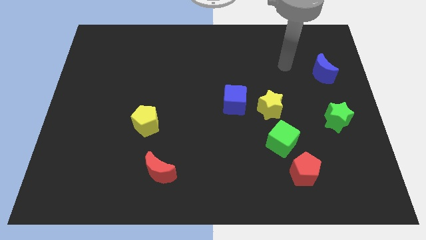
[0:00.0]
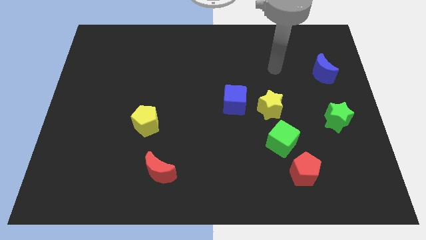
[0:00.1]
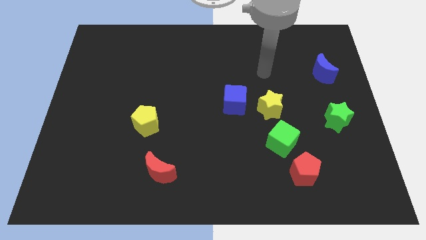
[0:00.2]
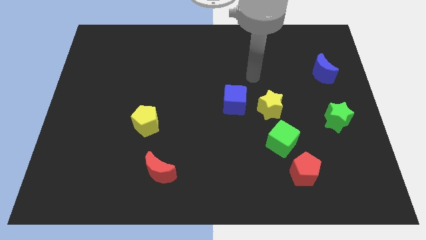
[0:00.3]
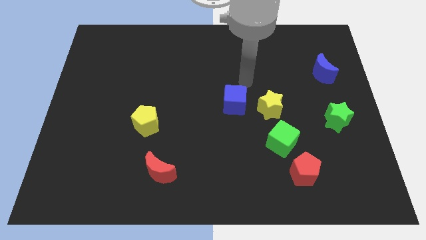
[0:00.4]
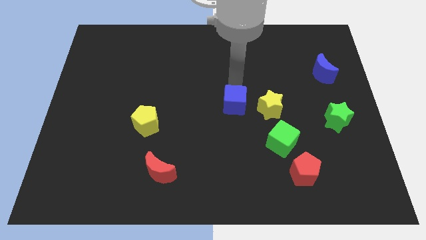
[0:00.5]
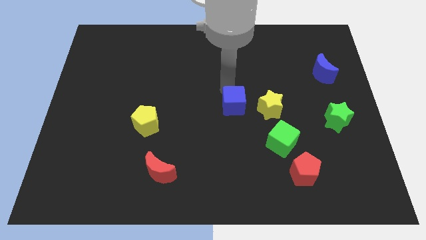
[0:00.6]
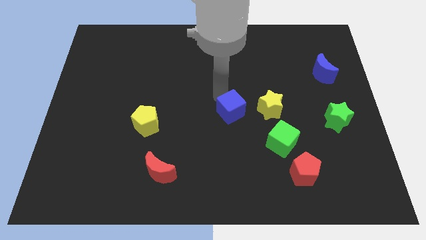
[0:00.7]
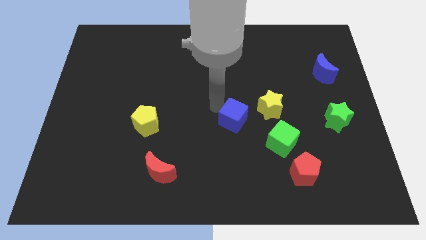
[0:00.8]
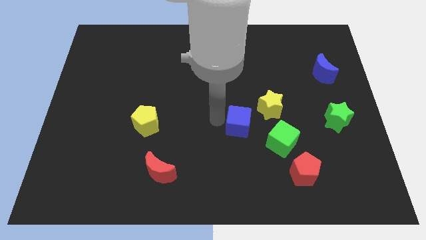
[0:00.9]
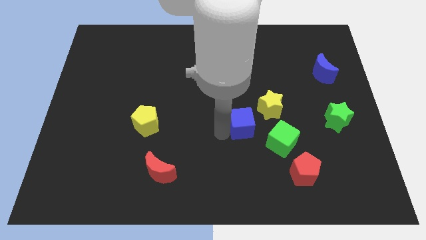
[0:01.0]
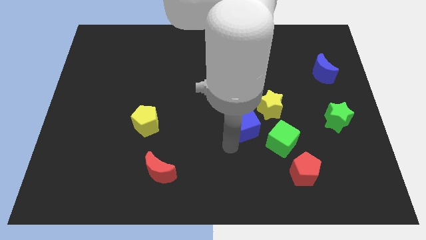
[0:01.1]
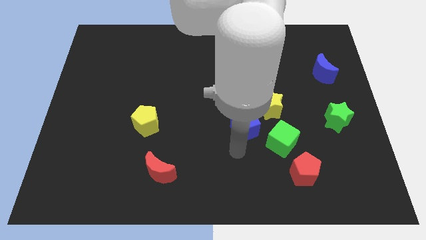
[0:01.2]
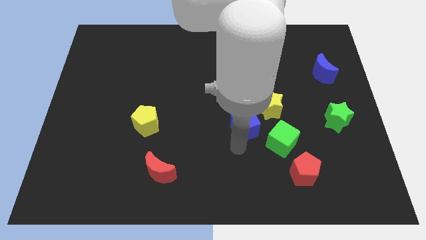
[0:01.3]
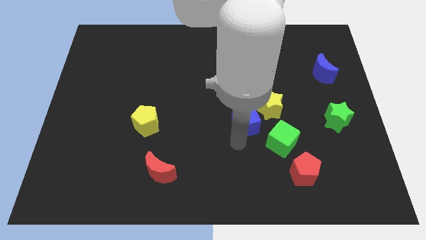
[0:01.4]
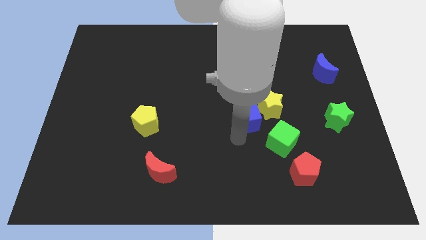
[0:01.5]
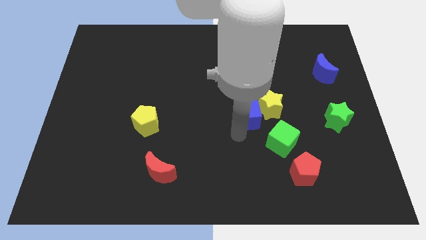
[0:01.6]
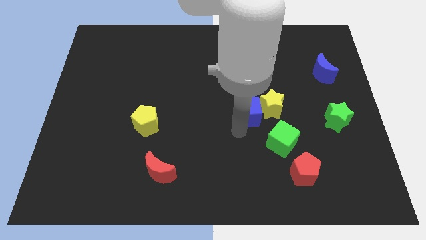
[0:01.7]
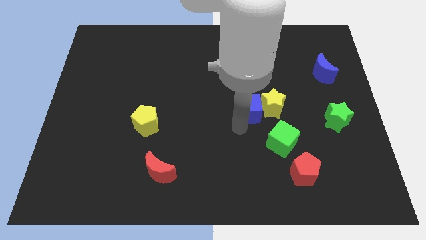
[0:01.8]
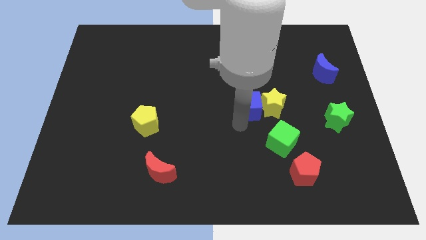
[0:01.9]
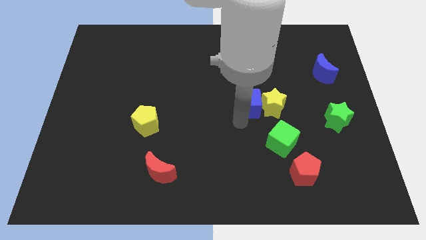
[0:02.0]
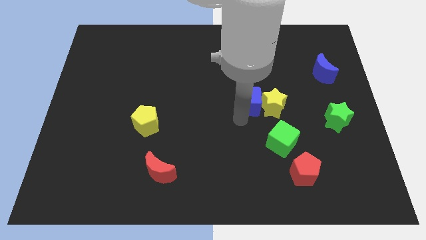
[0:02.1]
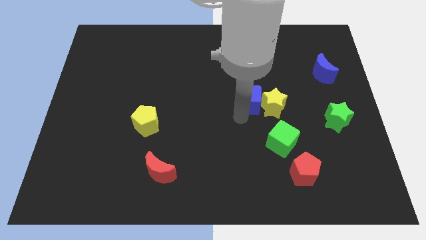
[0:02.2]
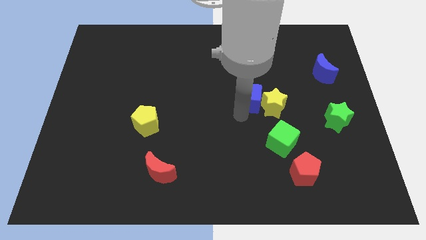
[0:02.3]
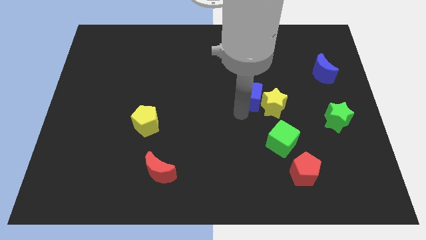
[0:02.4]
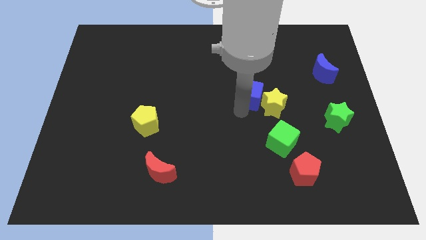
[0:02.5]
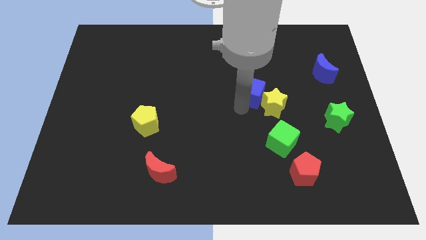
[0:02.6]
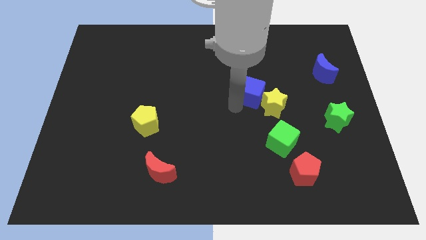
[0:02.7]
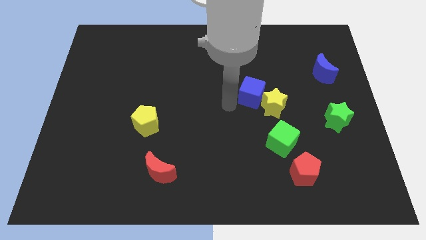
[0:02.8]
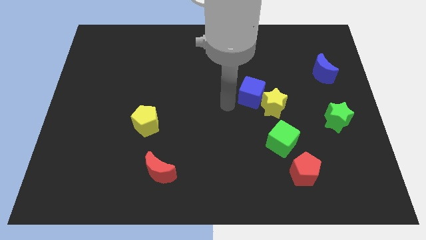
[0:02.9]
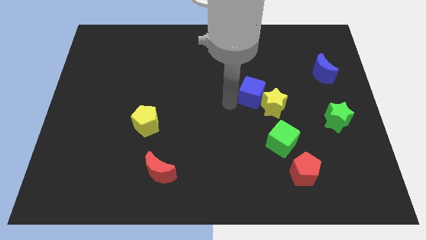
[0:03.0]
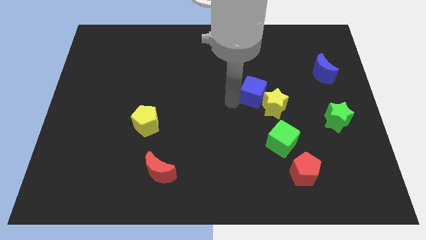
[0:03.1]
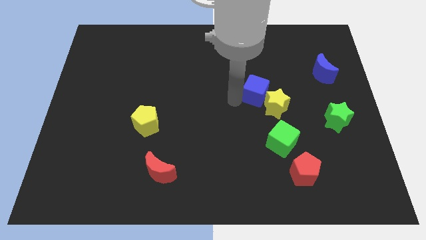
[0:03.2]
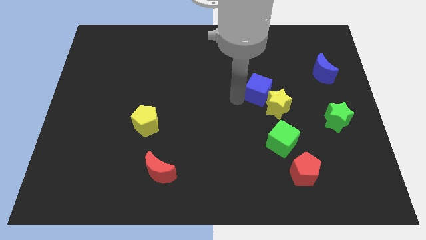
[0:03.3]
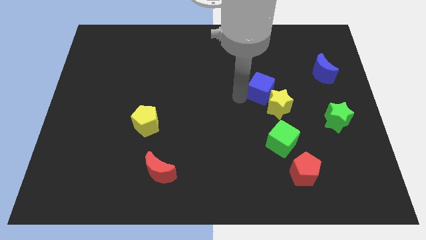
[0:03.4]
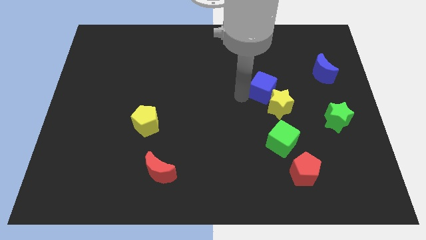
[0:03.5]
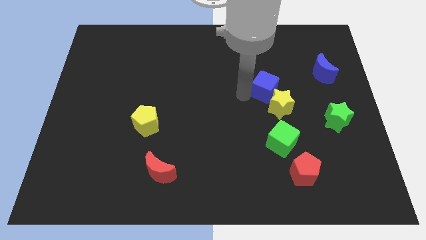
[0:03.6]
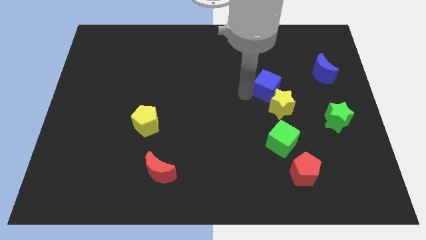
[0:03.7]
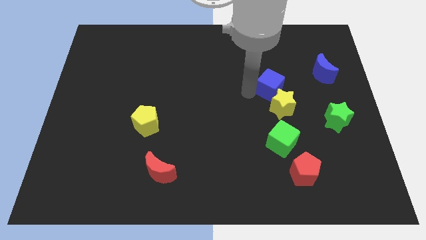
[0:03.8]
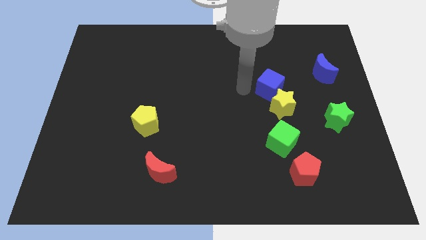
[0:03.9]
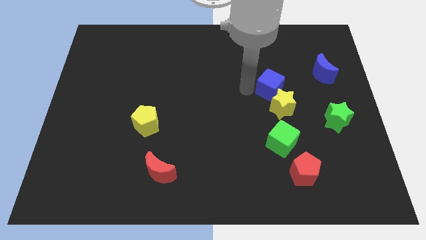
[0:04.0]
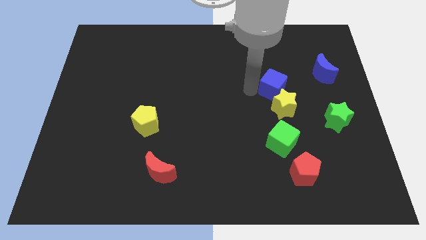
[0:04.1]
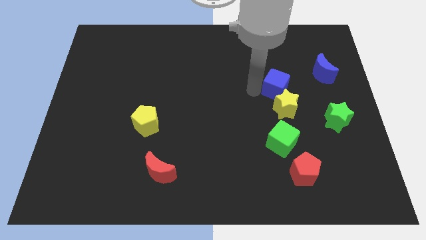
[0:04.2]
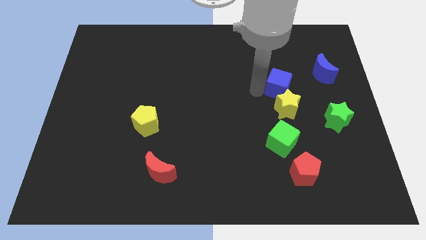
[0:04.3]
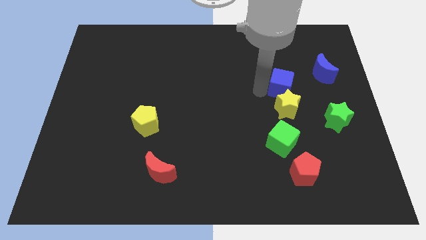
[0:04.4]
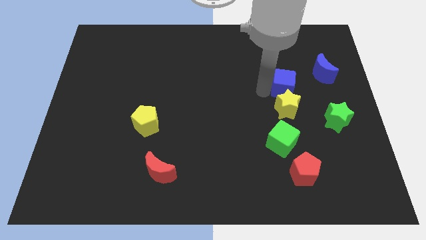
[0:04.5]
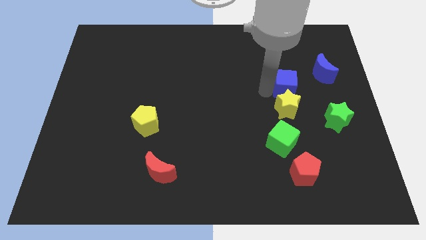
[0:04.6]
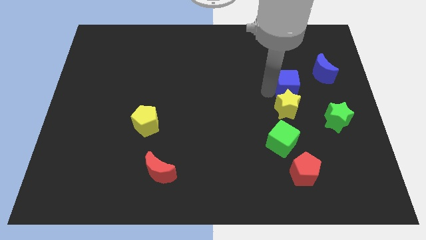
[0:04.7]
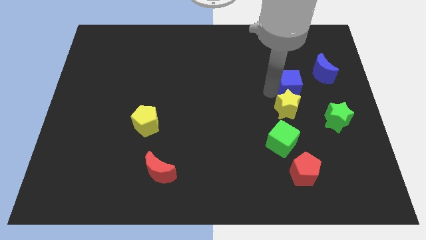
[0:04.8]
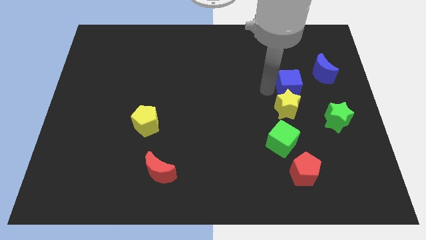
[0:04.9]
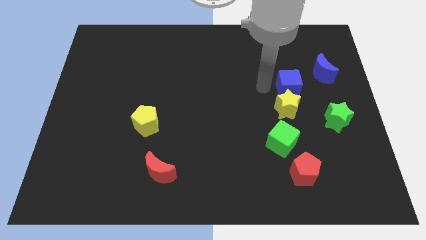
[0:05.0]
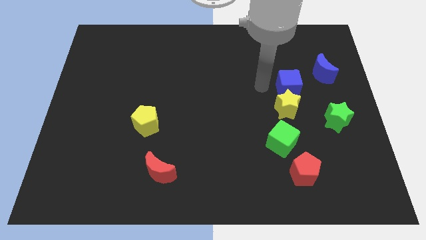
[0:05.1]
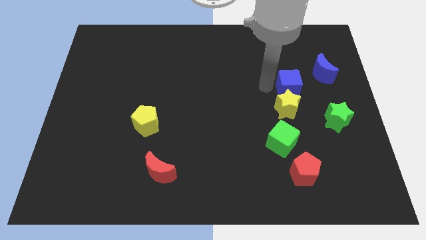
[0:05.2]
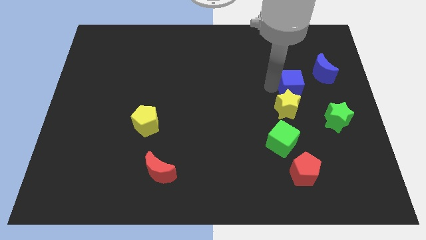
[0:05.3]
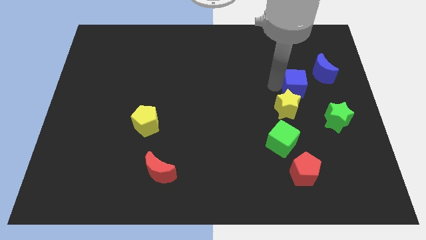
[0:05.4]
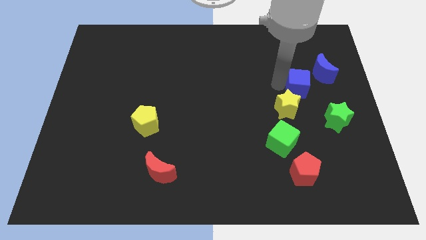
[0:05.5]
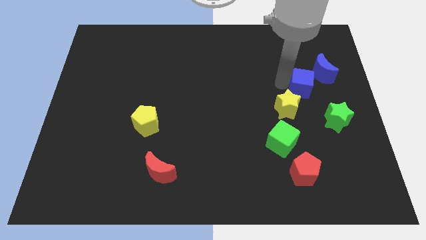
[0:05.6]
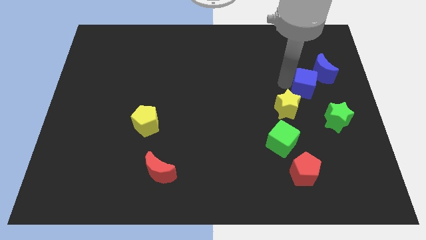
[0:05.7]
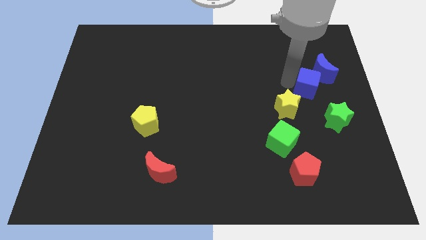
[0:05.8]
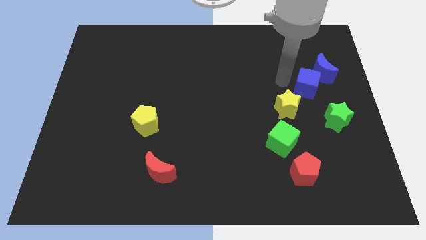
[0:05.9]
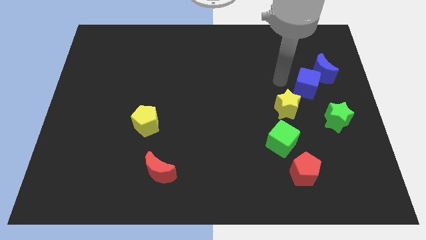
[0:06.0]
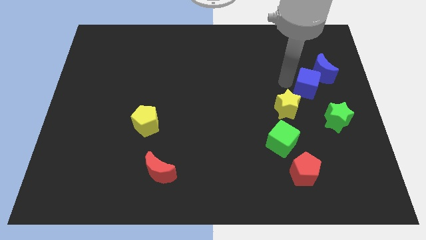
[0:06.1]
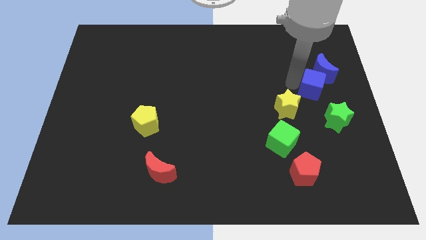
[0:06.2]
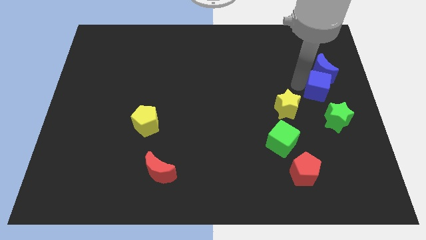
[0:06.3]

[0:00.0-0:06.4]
push the blue cube to the right side

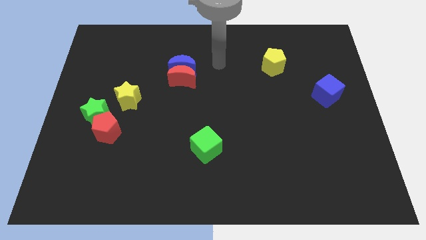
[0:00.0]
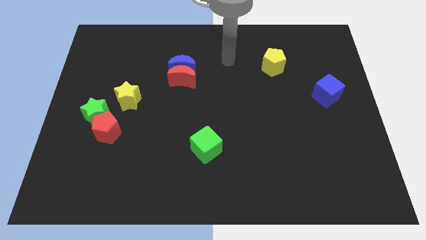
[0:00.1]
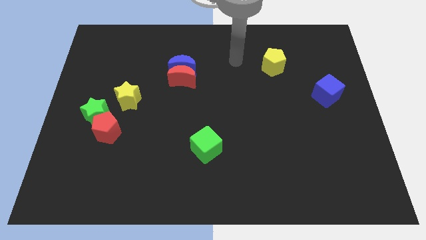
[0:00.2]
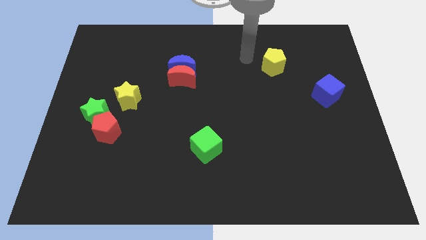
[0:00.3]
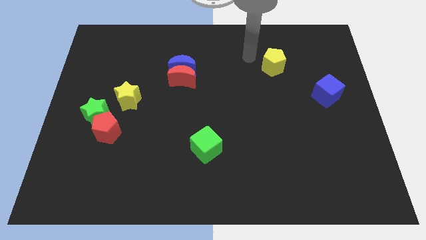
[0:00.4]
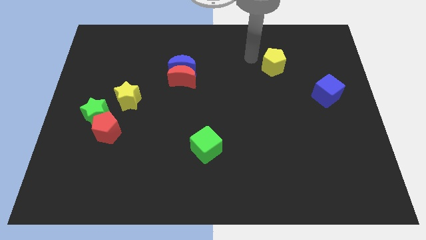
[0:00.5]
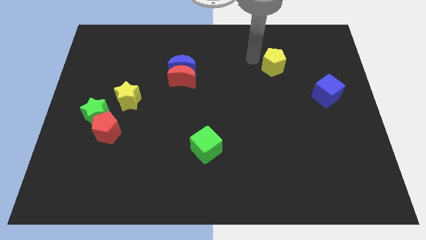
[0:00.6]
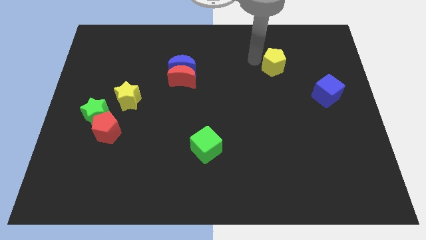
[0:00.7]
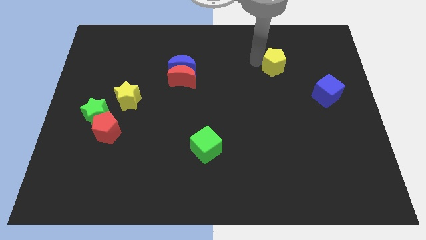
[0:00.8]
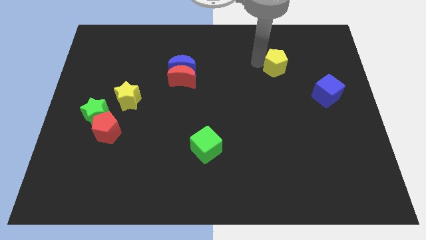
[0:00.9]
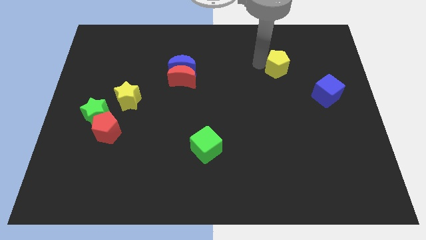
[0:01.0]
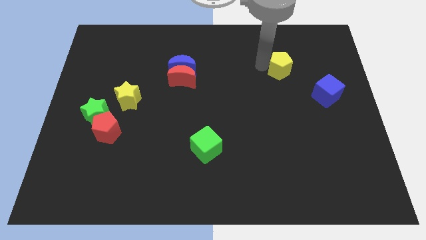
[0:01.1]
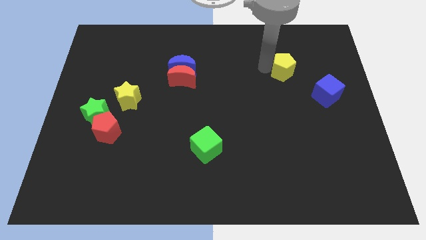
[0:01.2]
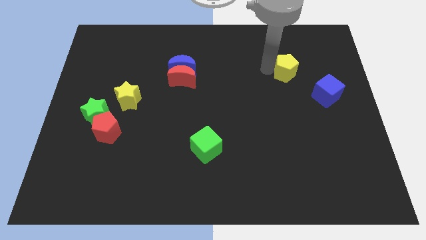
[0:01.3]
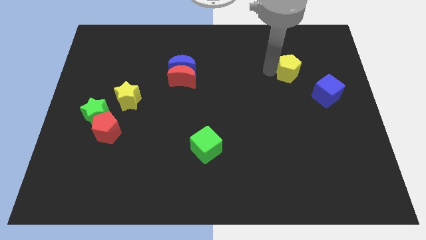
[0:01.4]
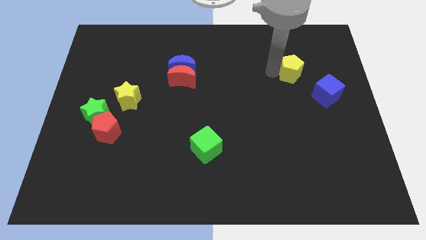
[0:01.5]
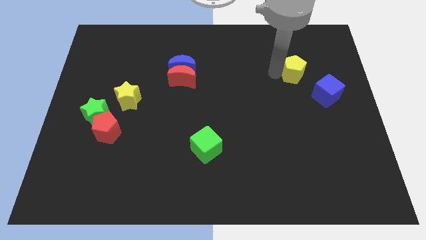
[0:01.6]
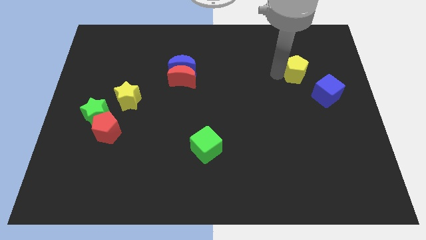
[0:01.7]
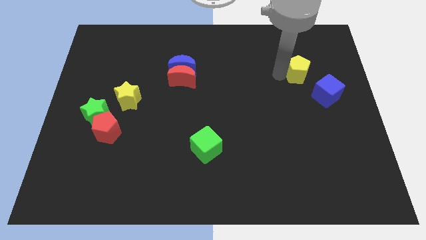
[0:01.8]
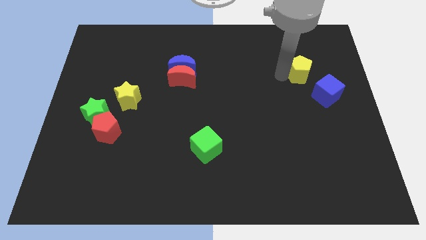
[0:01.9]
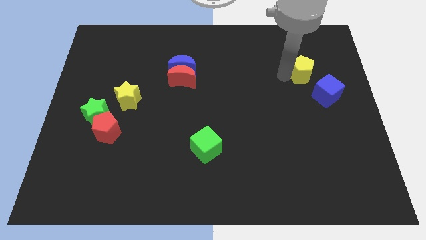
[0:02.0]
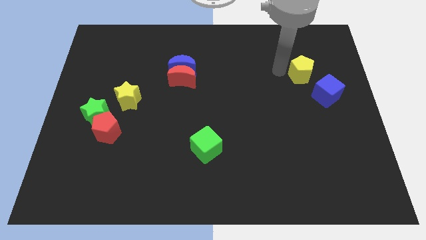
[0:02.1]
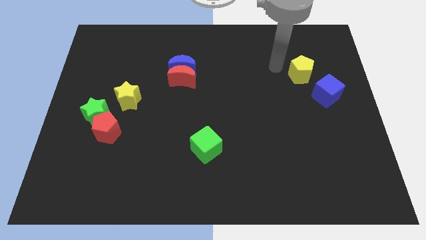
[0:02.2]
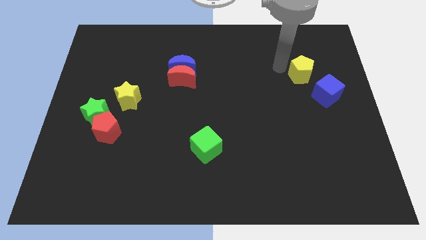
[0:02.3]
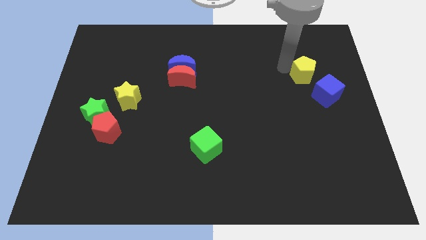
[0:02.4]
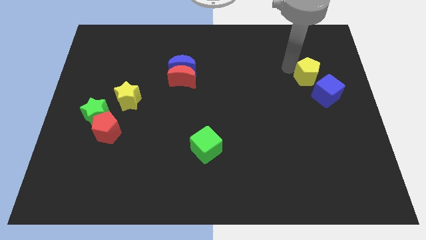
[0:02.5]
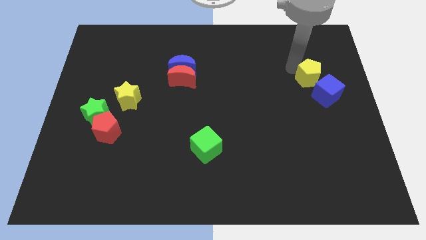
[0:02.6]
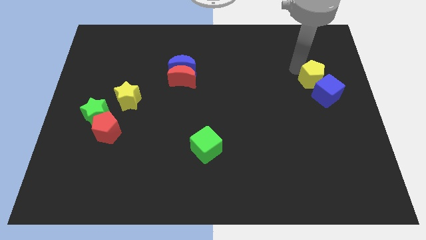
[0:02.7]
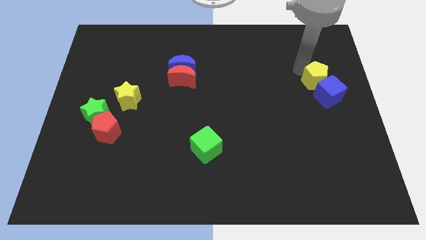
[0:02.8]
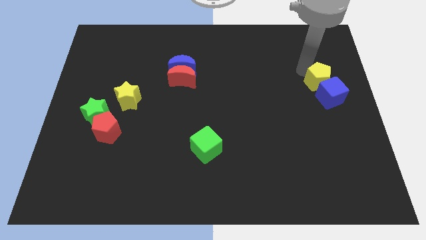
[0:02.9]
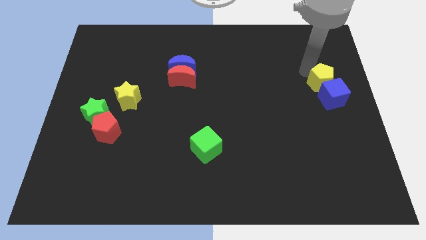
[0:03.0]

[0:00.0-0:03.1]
move the yellow pentagon to the right side of the board
